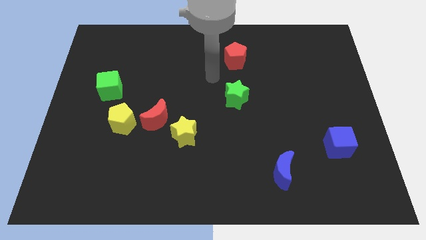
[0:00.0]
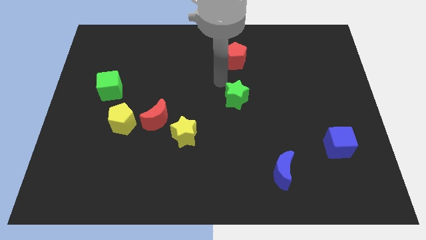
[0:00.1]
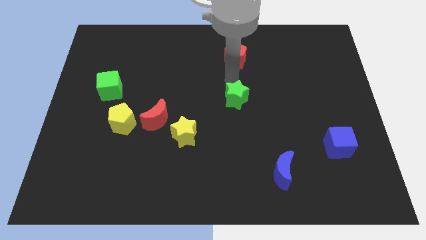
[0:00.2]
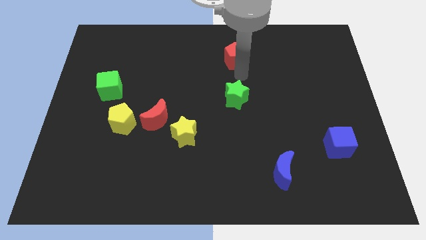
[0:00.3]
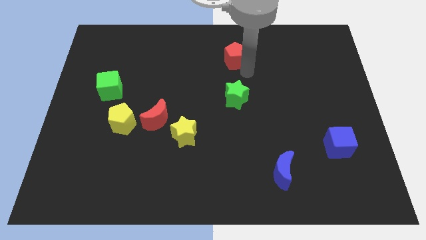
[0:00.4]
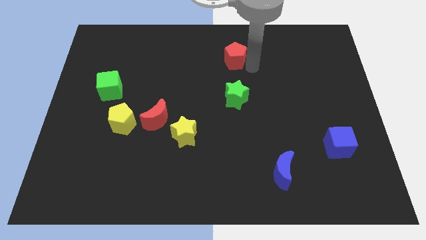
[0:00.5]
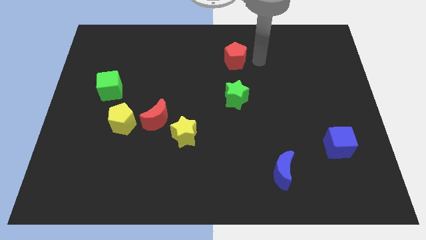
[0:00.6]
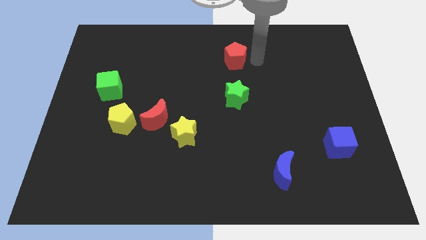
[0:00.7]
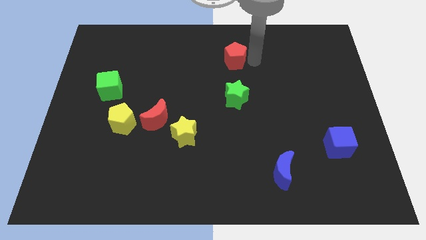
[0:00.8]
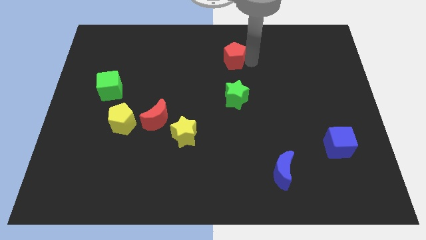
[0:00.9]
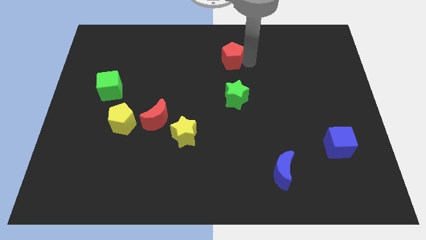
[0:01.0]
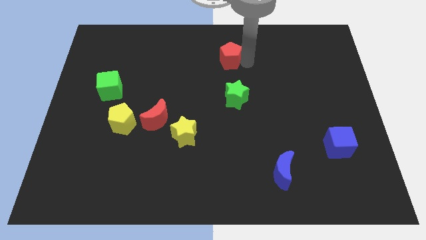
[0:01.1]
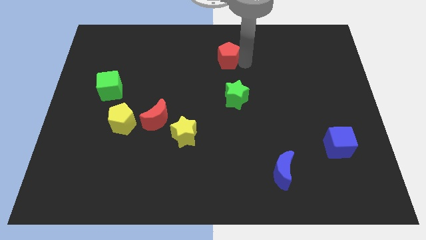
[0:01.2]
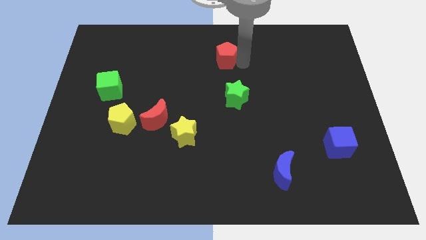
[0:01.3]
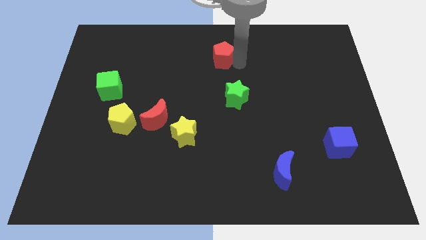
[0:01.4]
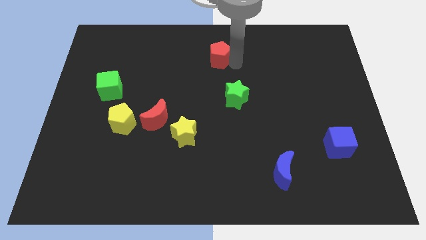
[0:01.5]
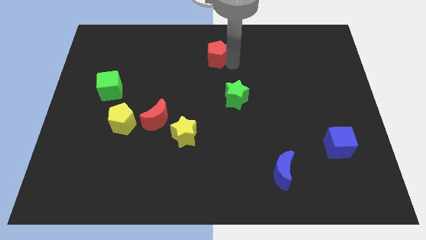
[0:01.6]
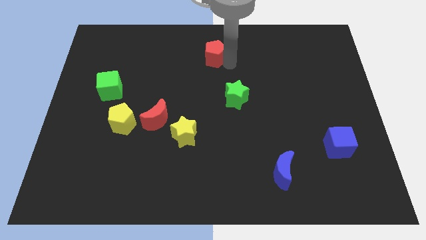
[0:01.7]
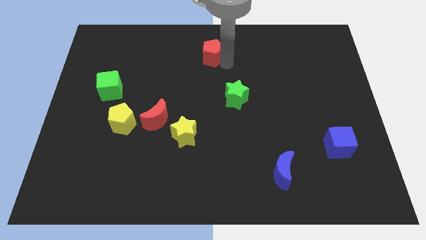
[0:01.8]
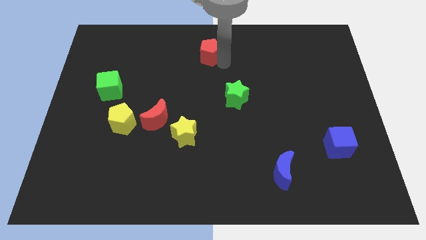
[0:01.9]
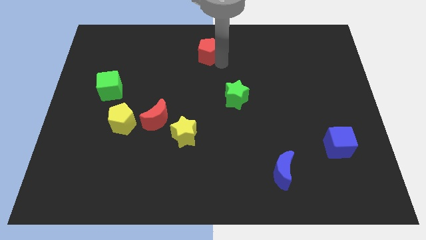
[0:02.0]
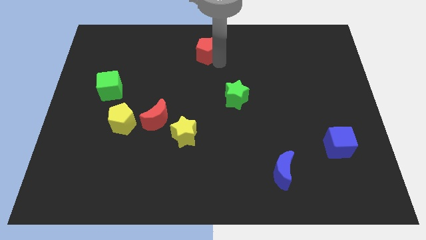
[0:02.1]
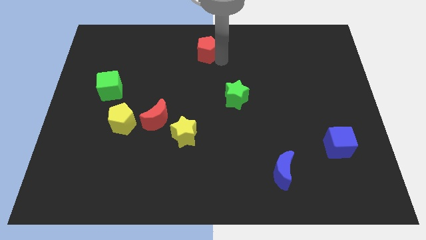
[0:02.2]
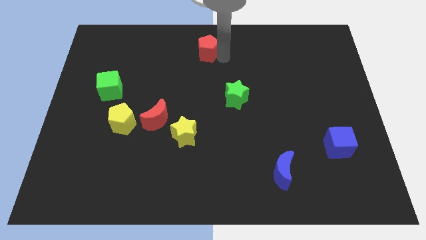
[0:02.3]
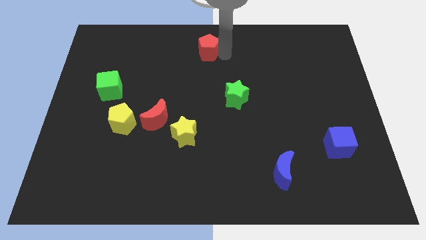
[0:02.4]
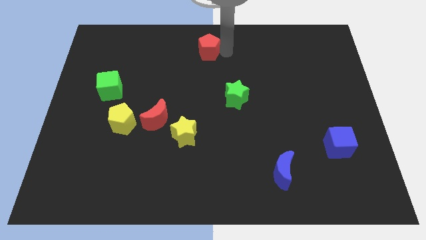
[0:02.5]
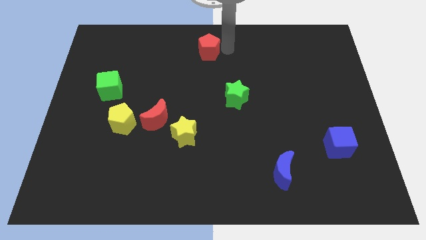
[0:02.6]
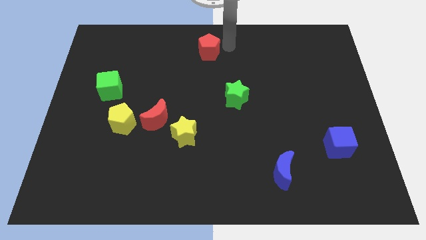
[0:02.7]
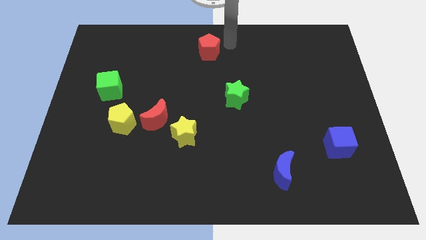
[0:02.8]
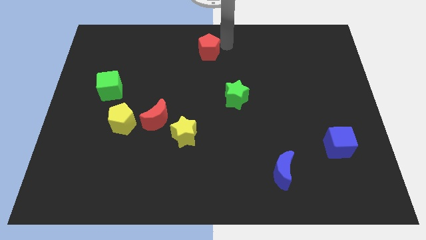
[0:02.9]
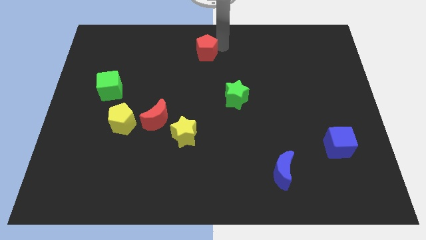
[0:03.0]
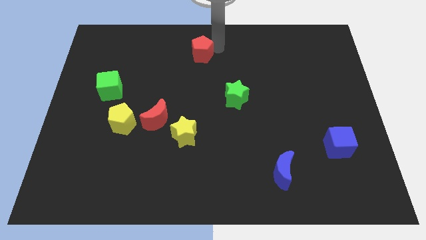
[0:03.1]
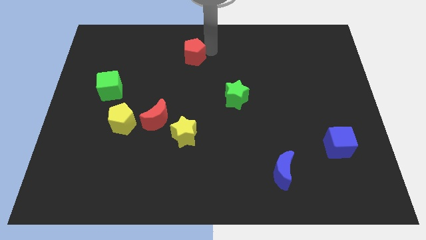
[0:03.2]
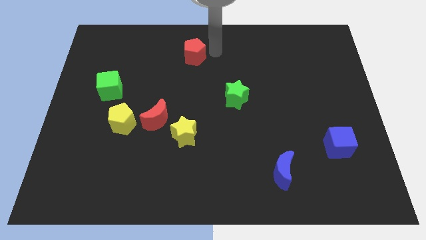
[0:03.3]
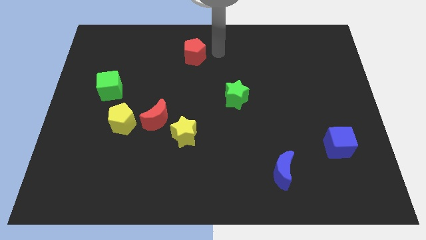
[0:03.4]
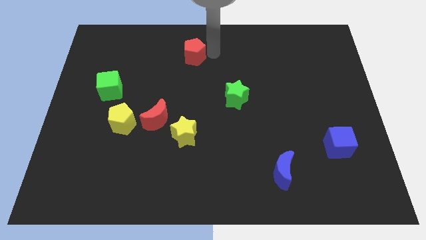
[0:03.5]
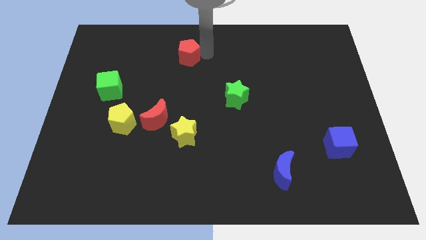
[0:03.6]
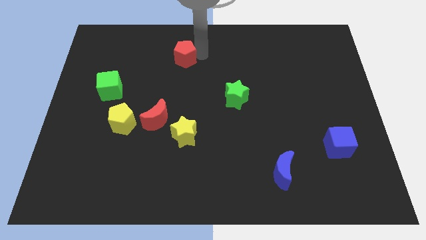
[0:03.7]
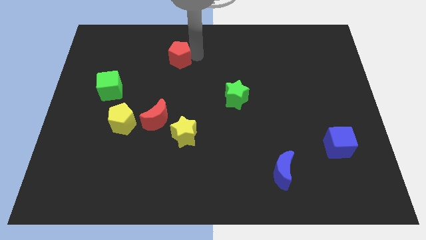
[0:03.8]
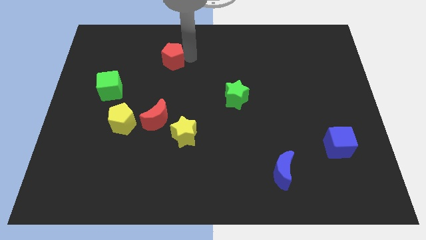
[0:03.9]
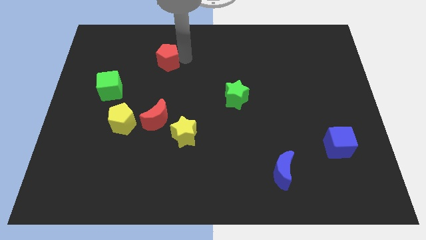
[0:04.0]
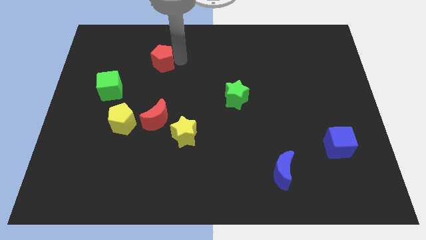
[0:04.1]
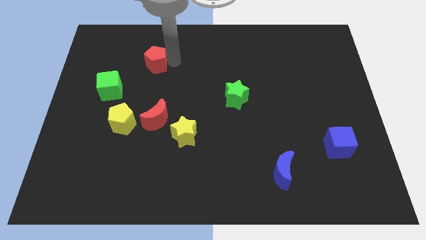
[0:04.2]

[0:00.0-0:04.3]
slide the red pentagon to the left

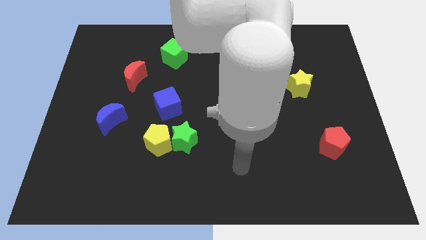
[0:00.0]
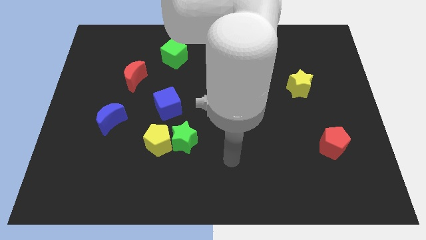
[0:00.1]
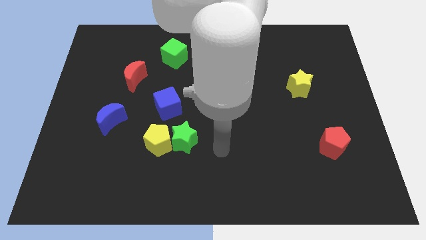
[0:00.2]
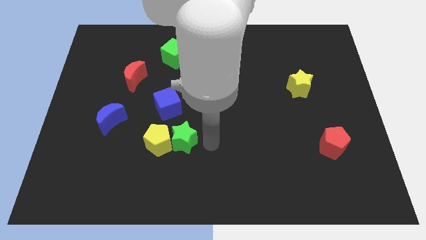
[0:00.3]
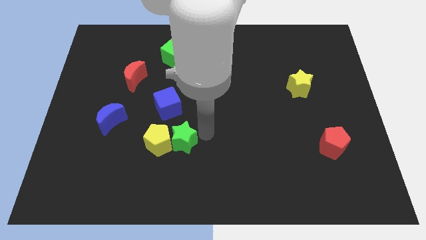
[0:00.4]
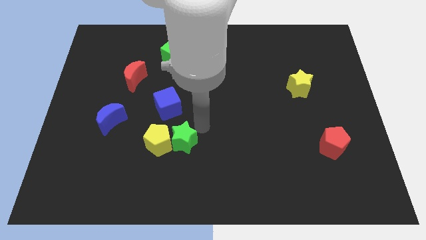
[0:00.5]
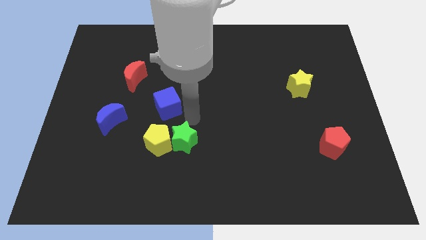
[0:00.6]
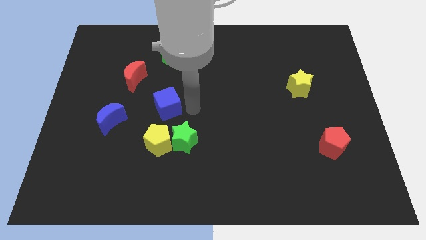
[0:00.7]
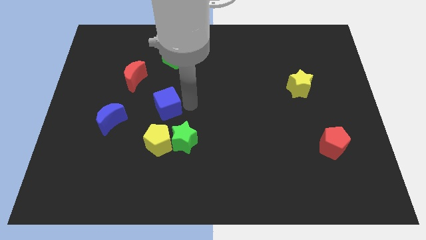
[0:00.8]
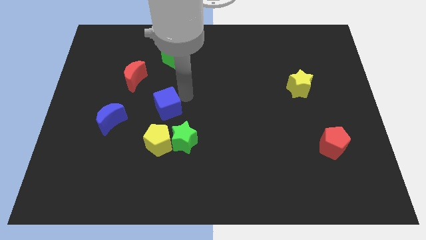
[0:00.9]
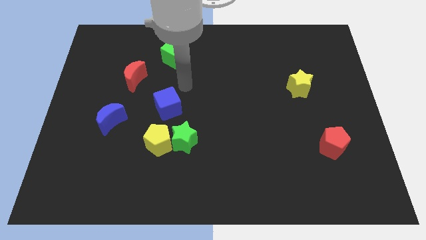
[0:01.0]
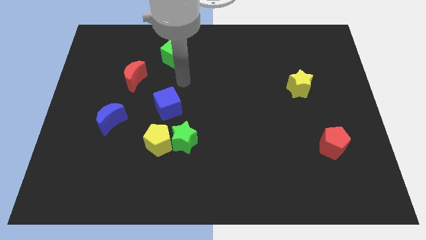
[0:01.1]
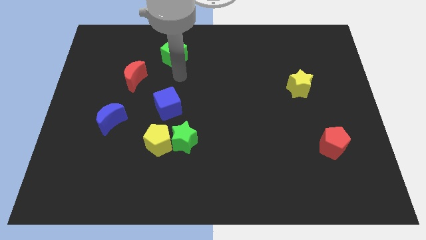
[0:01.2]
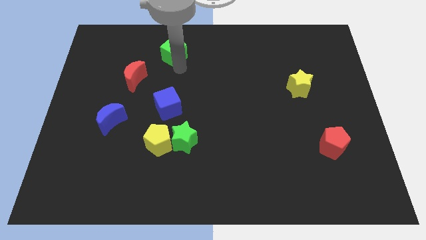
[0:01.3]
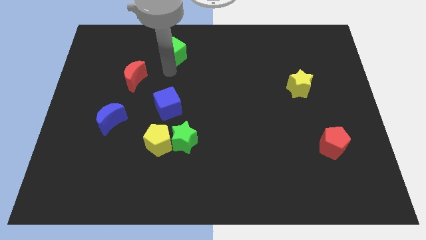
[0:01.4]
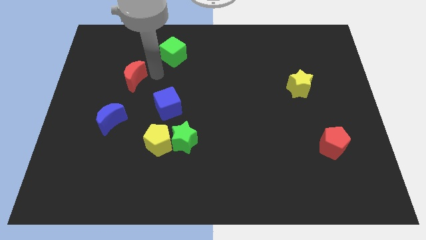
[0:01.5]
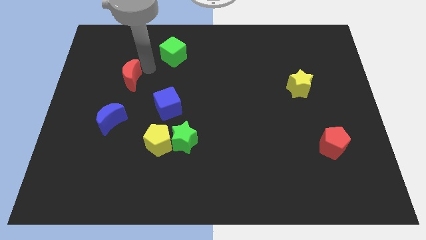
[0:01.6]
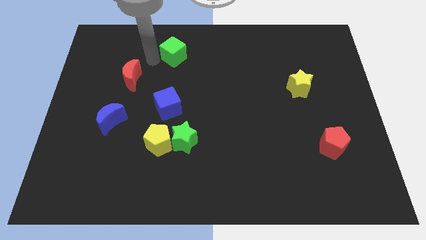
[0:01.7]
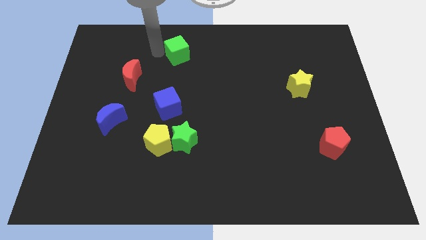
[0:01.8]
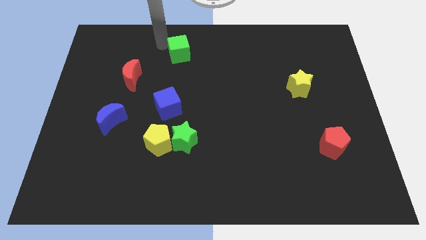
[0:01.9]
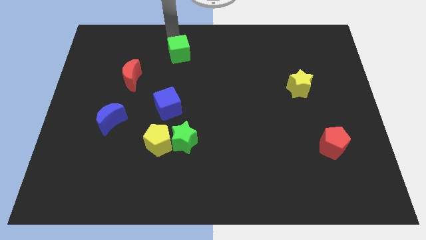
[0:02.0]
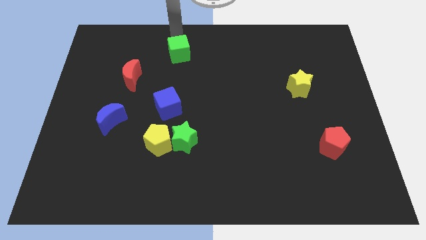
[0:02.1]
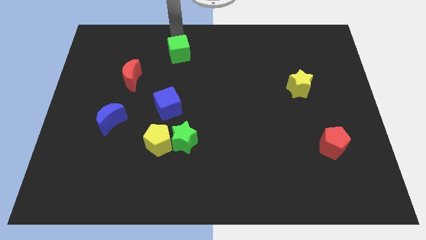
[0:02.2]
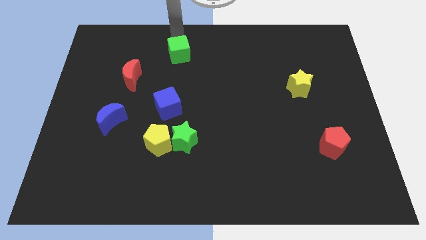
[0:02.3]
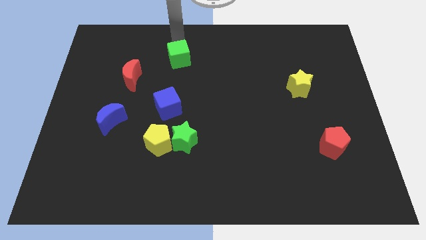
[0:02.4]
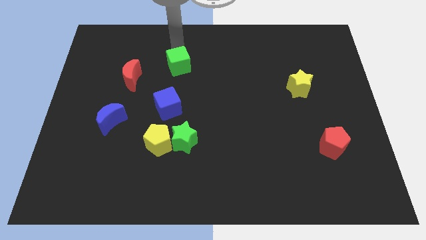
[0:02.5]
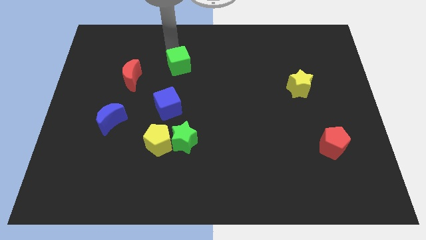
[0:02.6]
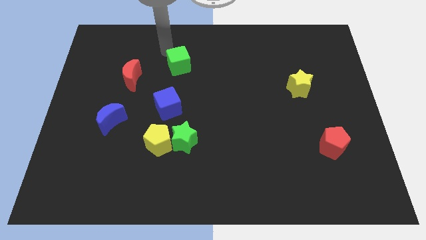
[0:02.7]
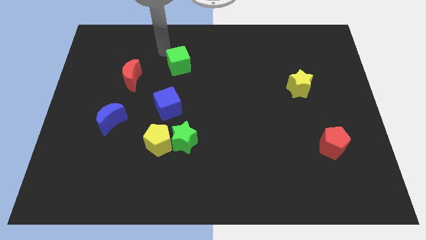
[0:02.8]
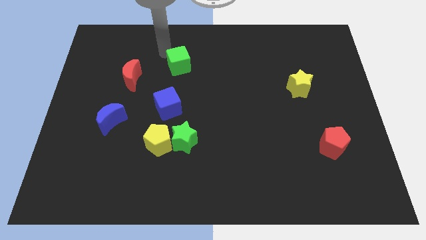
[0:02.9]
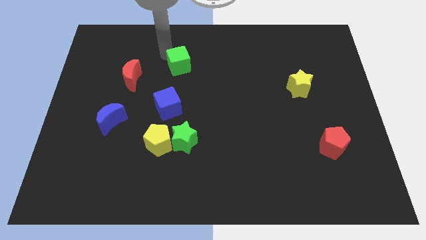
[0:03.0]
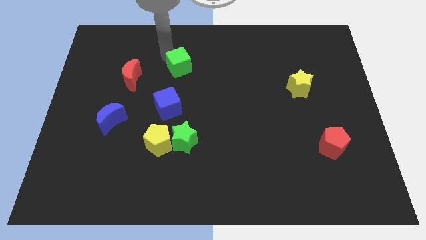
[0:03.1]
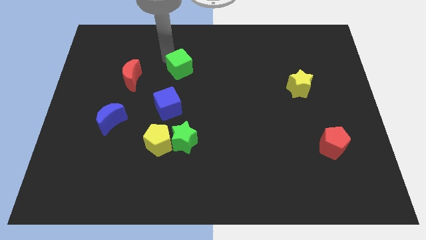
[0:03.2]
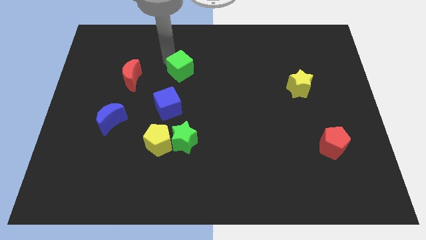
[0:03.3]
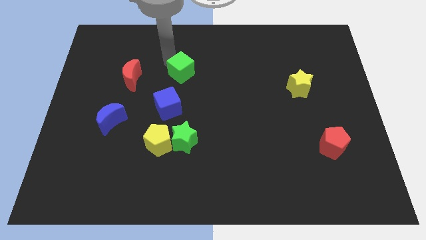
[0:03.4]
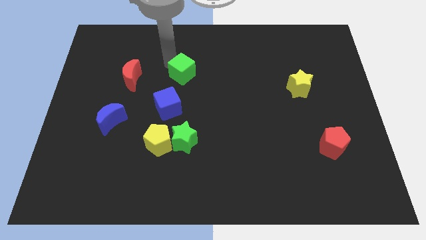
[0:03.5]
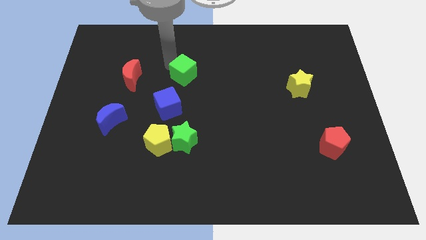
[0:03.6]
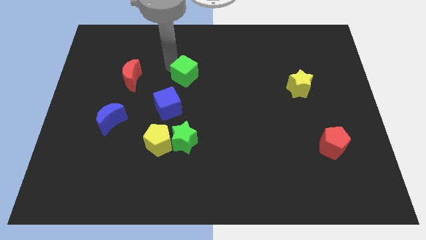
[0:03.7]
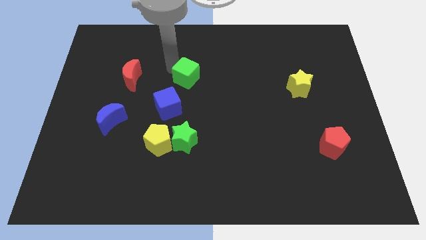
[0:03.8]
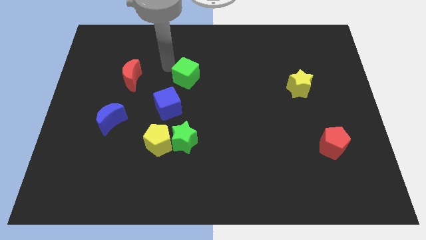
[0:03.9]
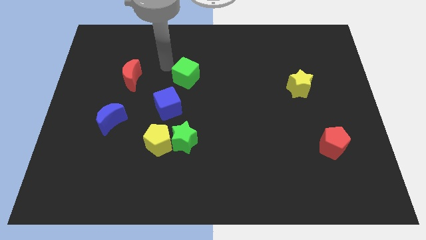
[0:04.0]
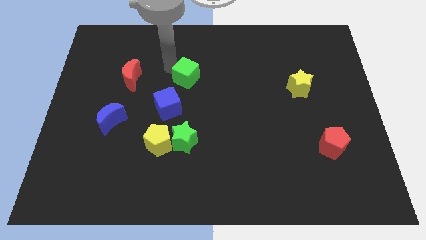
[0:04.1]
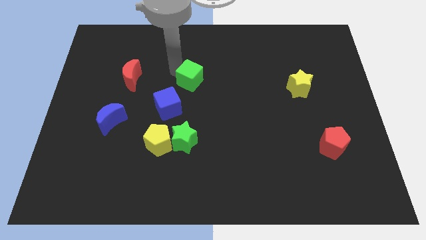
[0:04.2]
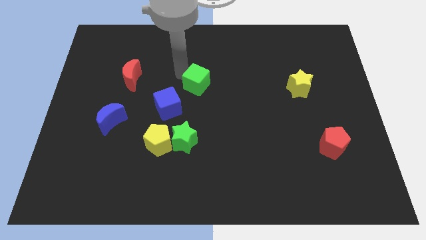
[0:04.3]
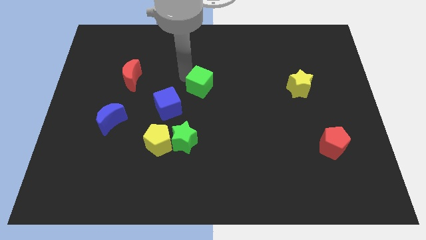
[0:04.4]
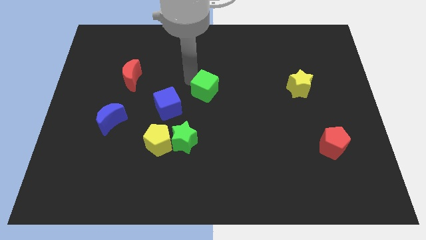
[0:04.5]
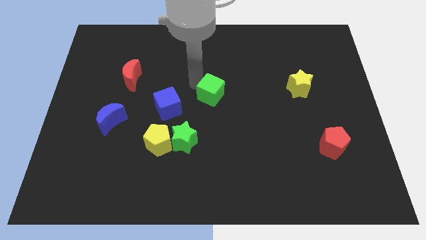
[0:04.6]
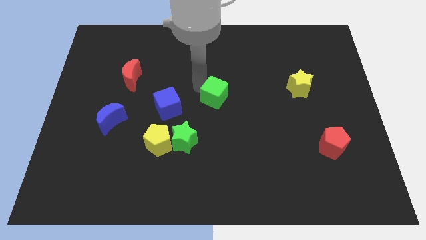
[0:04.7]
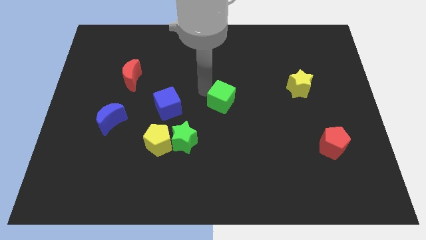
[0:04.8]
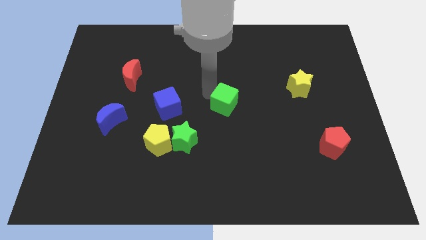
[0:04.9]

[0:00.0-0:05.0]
slide the green cube downwards and then right
